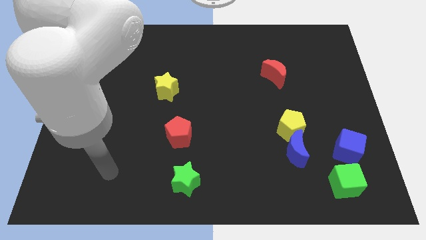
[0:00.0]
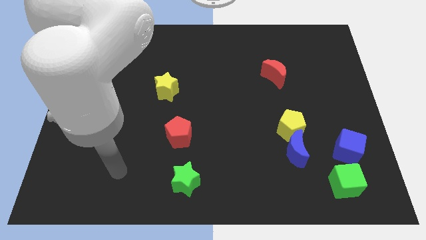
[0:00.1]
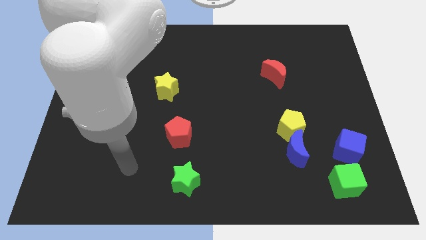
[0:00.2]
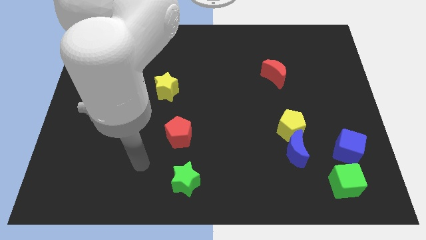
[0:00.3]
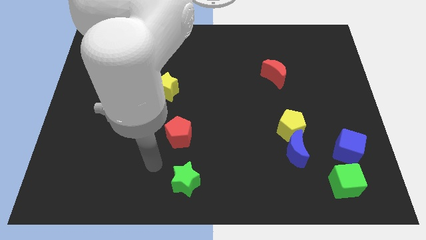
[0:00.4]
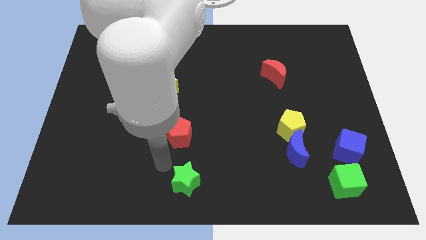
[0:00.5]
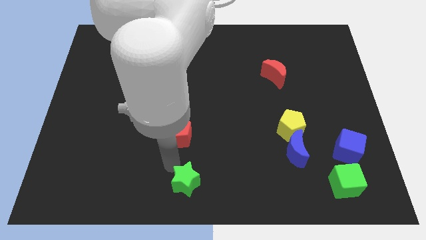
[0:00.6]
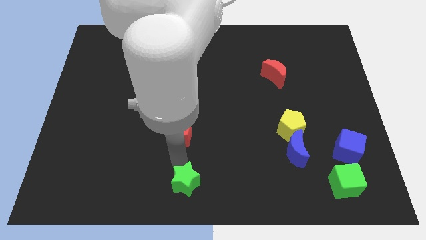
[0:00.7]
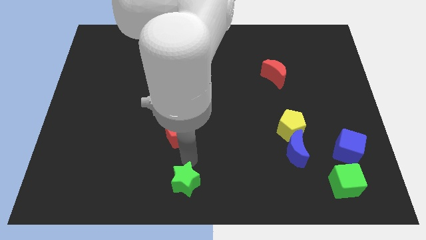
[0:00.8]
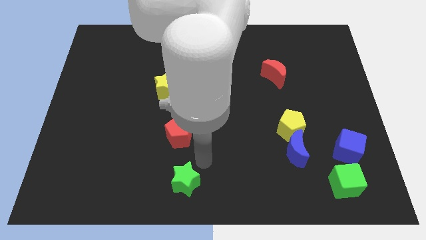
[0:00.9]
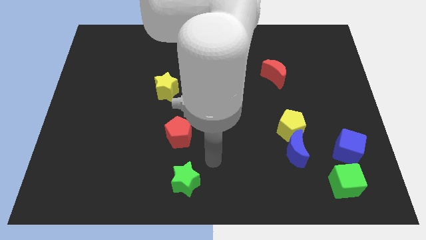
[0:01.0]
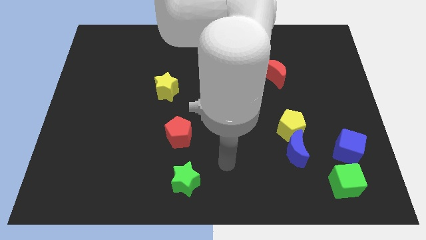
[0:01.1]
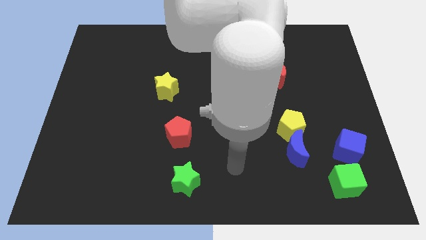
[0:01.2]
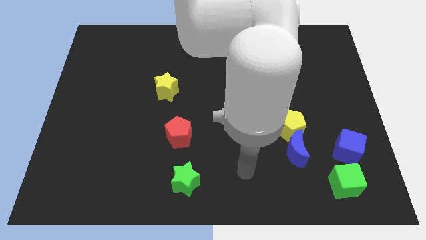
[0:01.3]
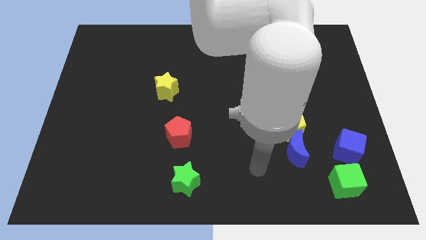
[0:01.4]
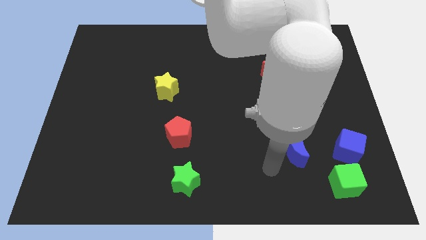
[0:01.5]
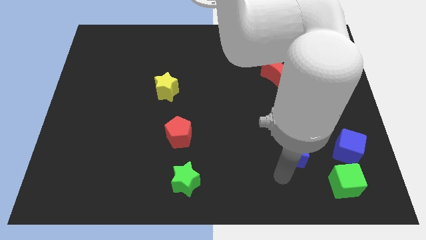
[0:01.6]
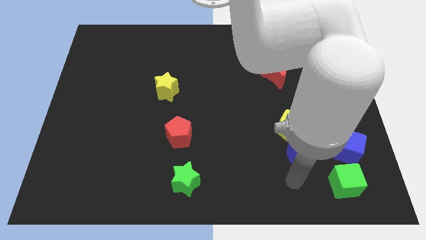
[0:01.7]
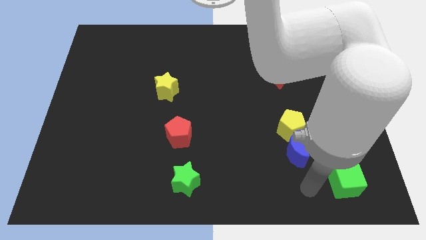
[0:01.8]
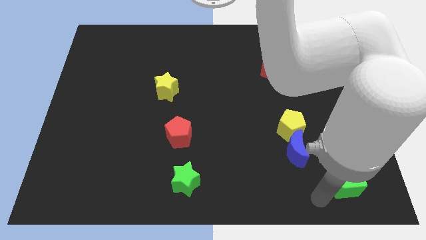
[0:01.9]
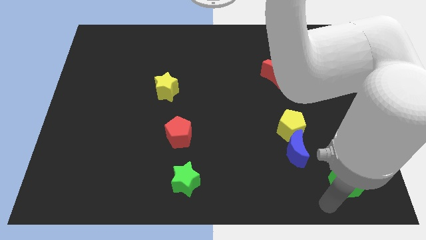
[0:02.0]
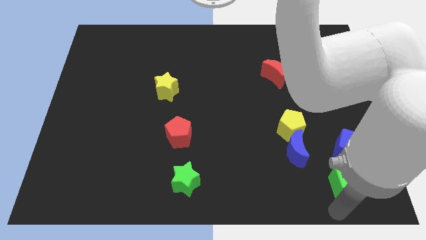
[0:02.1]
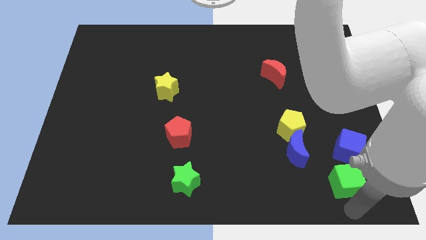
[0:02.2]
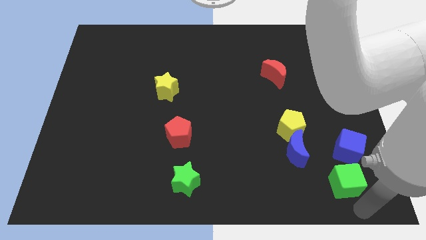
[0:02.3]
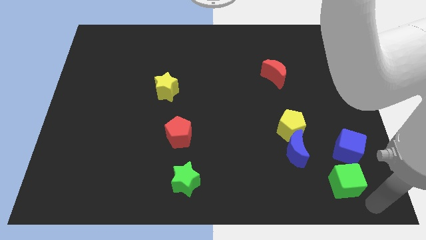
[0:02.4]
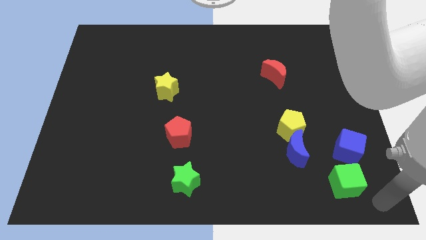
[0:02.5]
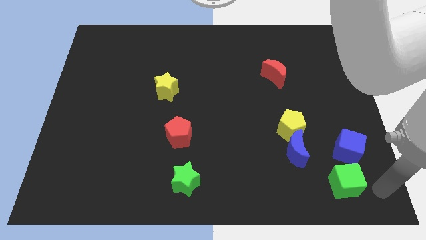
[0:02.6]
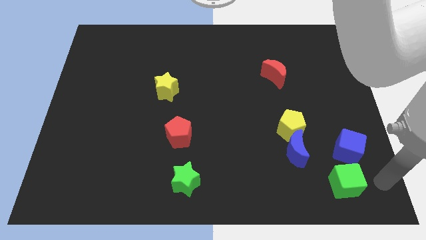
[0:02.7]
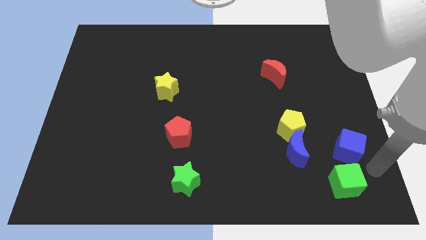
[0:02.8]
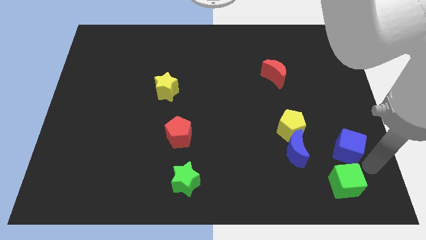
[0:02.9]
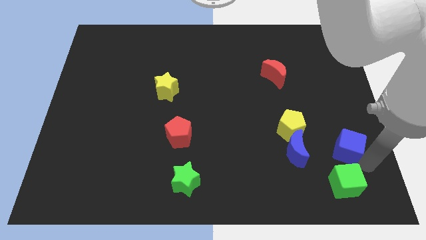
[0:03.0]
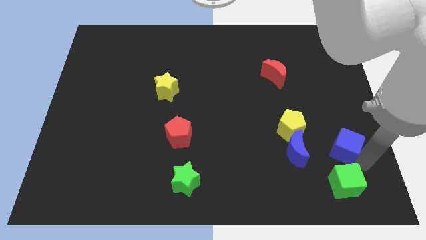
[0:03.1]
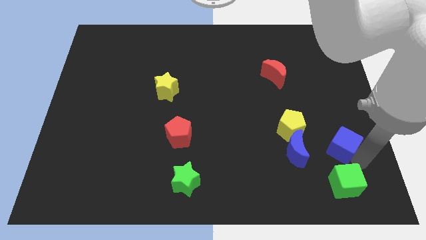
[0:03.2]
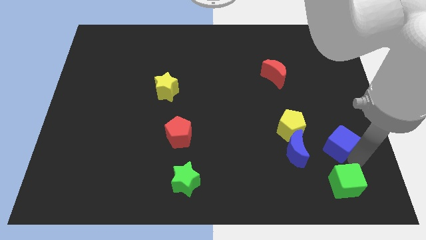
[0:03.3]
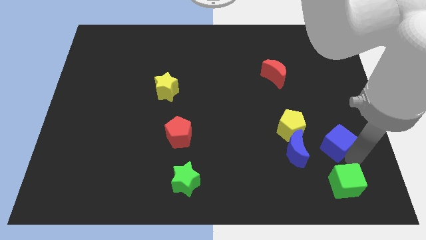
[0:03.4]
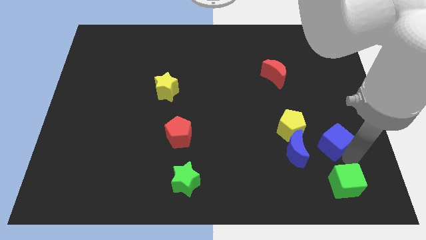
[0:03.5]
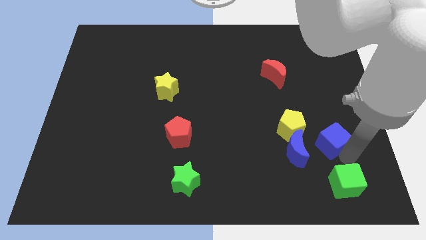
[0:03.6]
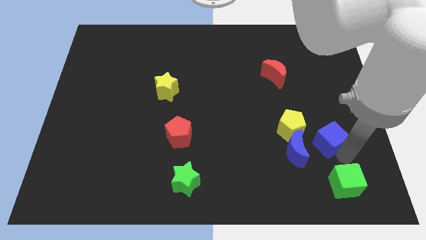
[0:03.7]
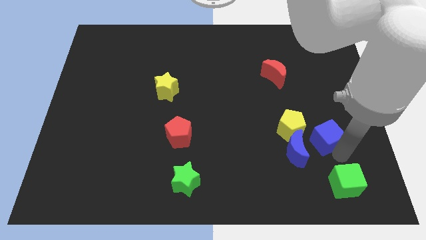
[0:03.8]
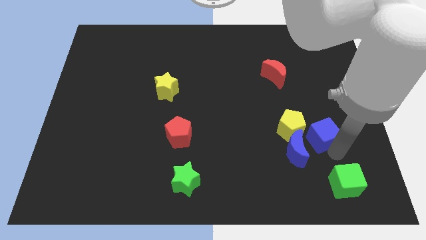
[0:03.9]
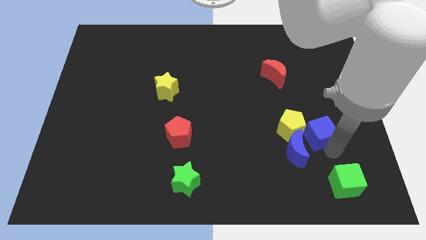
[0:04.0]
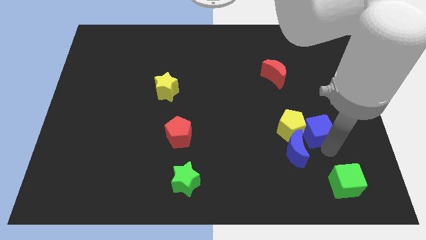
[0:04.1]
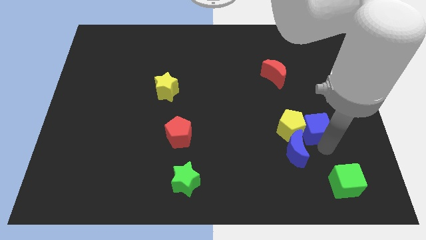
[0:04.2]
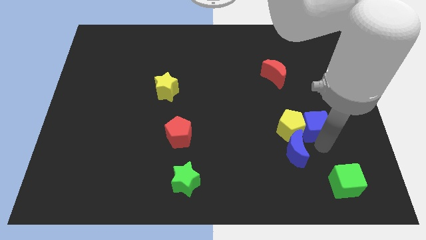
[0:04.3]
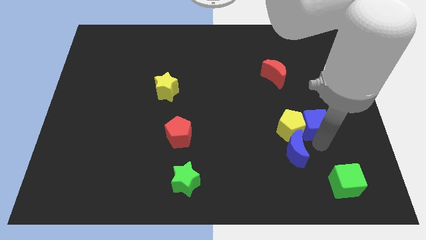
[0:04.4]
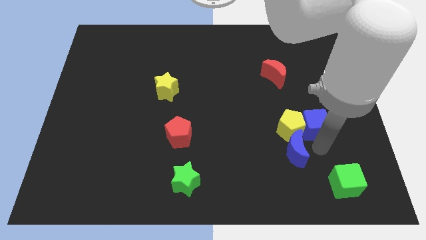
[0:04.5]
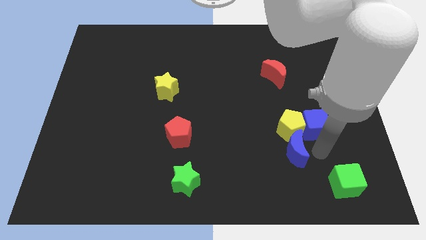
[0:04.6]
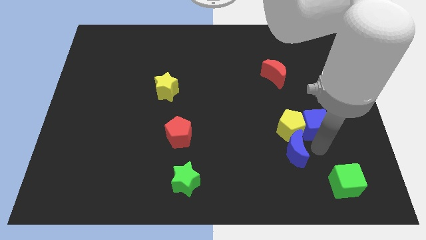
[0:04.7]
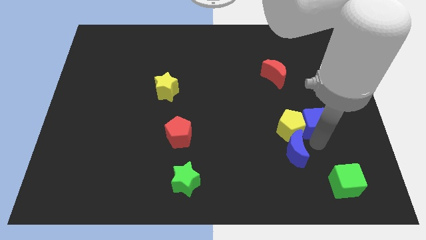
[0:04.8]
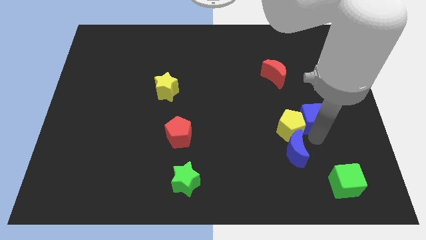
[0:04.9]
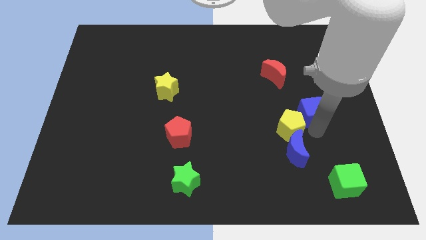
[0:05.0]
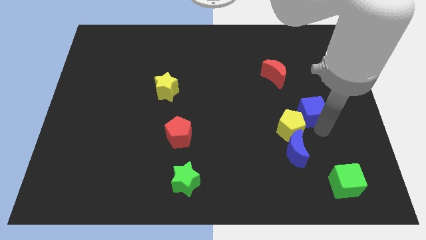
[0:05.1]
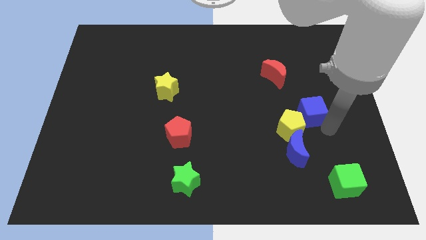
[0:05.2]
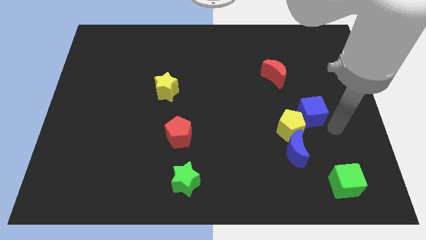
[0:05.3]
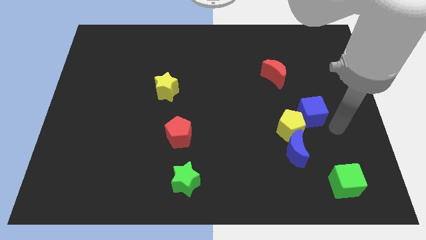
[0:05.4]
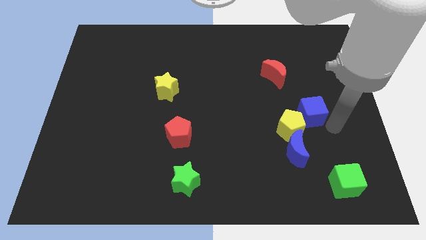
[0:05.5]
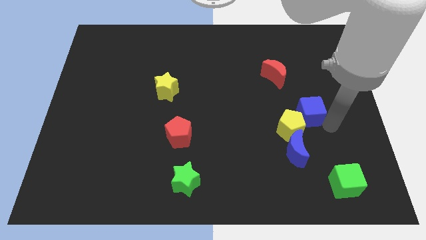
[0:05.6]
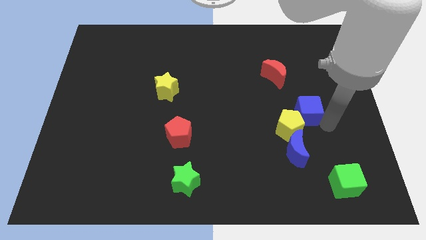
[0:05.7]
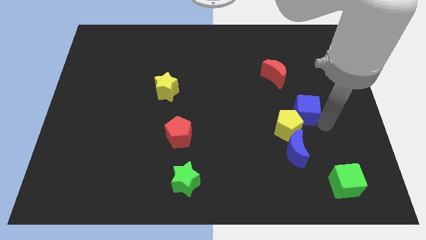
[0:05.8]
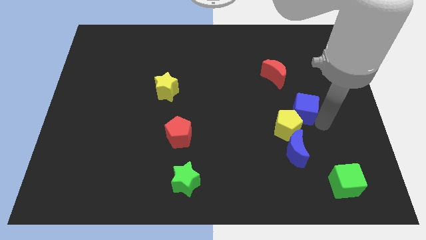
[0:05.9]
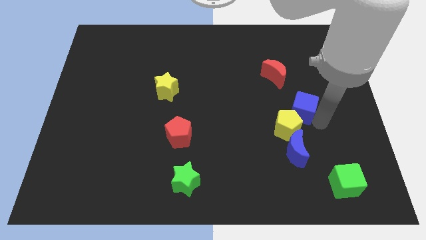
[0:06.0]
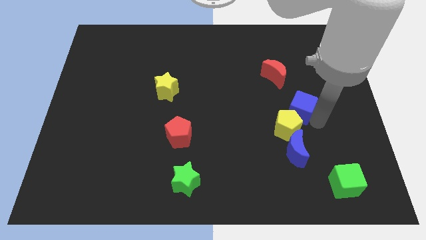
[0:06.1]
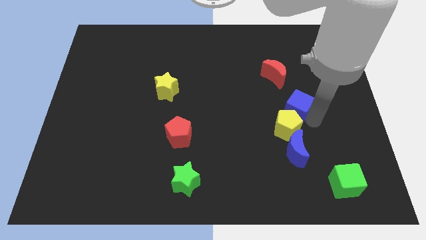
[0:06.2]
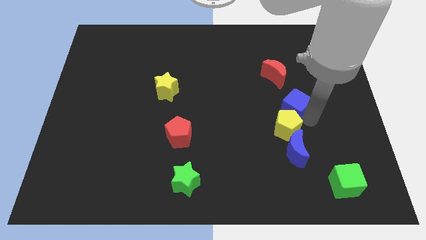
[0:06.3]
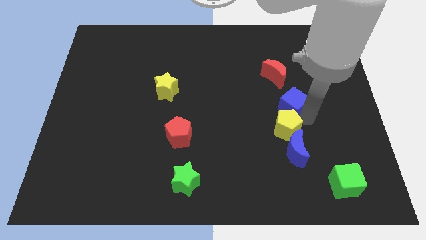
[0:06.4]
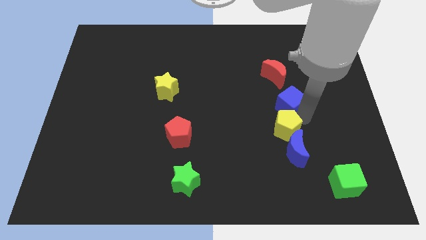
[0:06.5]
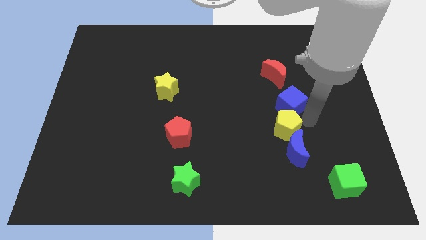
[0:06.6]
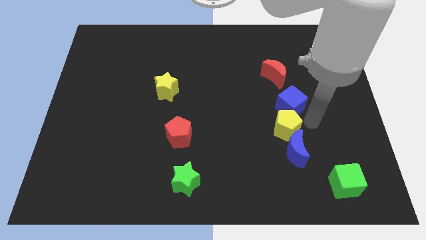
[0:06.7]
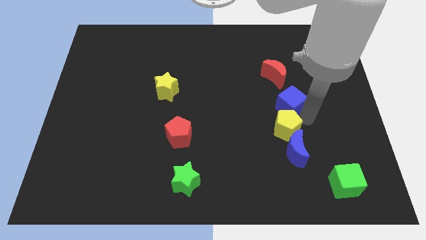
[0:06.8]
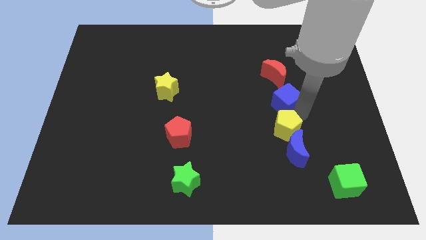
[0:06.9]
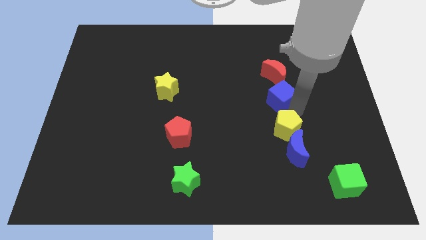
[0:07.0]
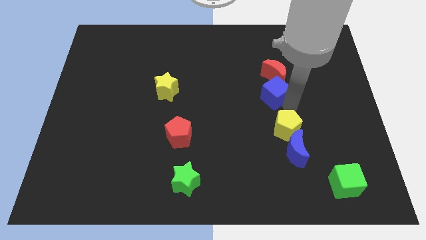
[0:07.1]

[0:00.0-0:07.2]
push the blue cube up and then left

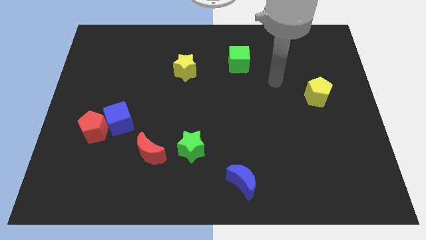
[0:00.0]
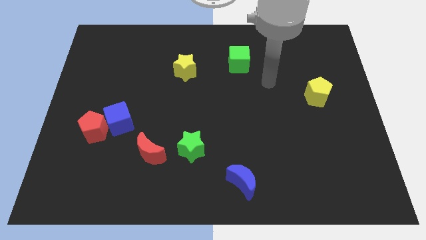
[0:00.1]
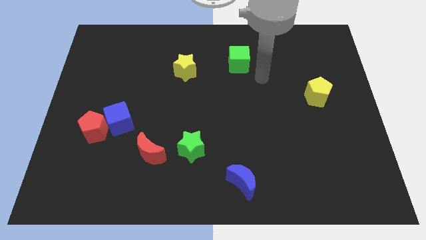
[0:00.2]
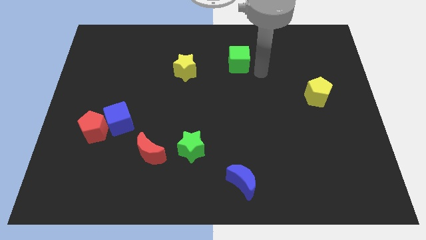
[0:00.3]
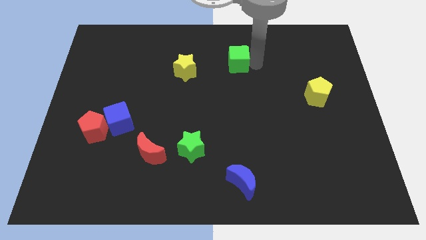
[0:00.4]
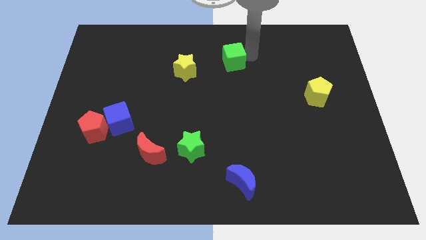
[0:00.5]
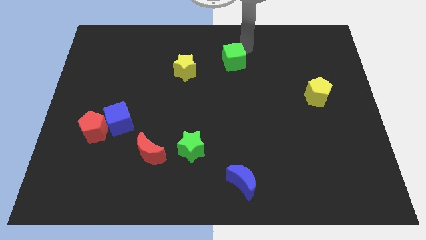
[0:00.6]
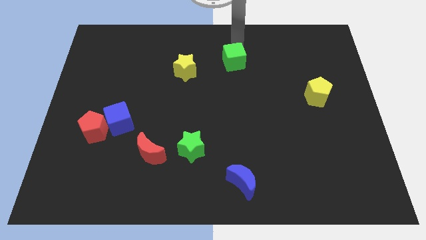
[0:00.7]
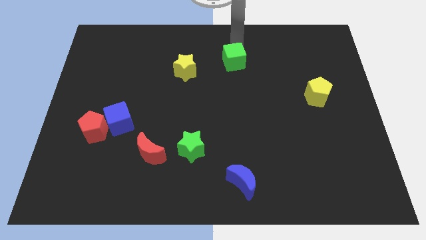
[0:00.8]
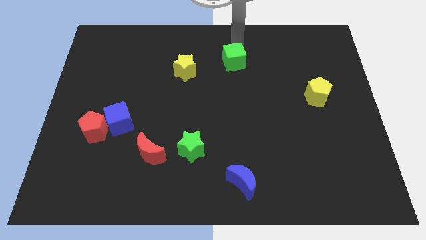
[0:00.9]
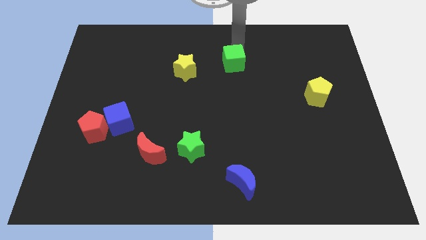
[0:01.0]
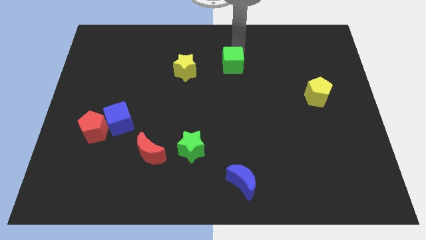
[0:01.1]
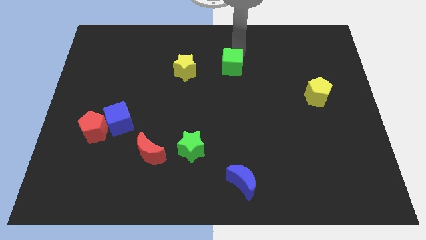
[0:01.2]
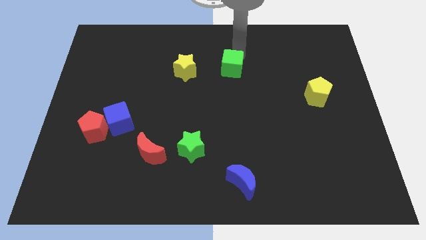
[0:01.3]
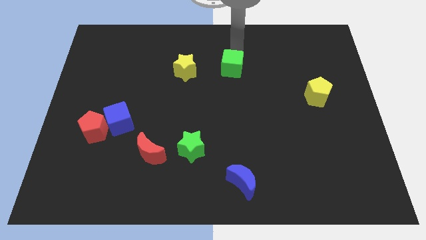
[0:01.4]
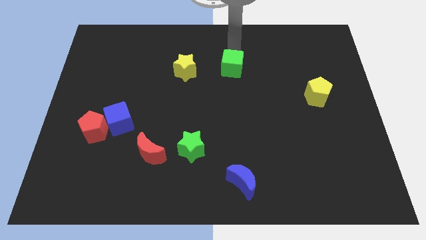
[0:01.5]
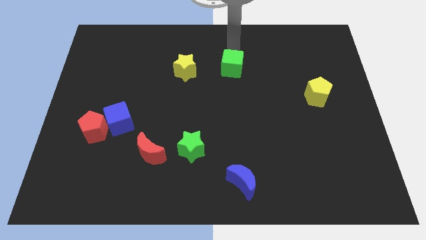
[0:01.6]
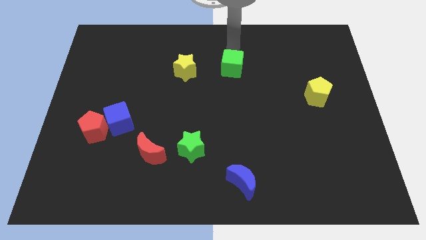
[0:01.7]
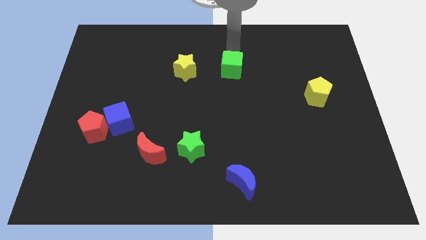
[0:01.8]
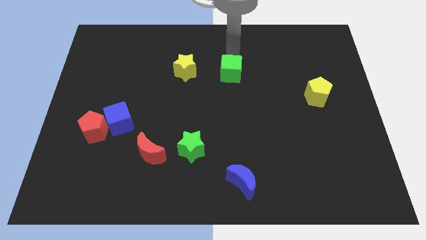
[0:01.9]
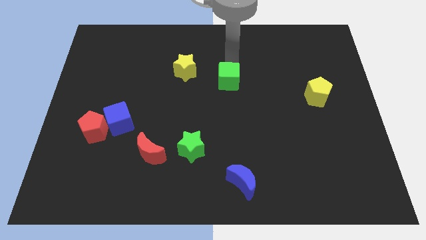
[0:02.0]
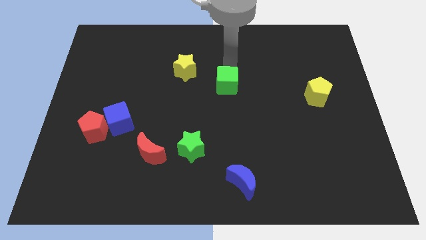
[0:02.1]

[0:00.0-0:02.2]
move the green cube down a bit
